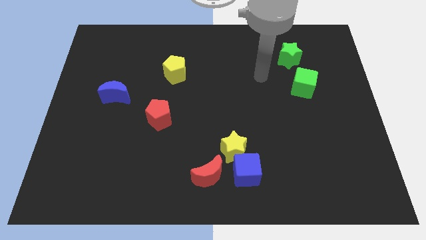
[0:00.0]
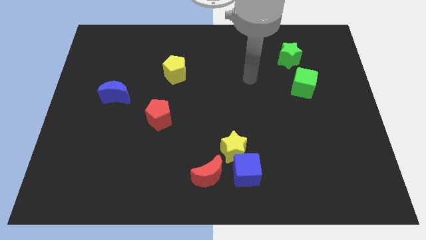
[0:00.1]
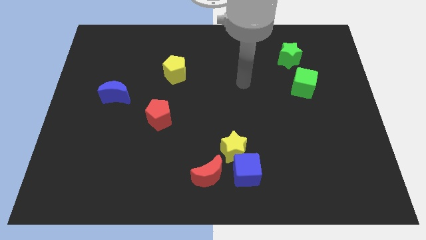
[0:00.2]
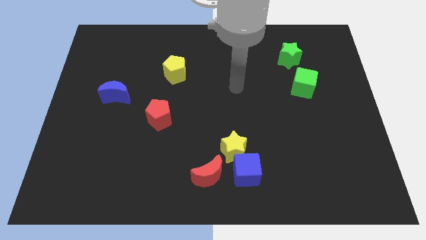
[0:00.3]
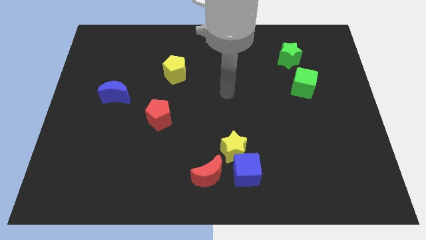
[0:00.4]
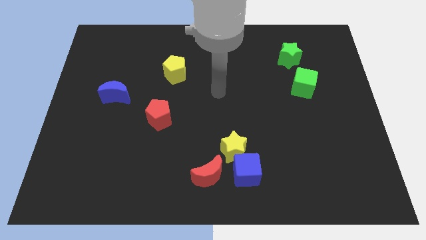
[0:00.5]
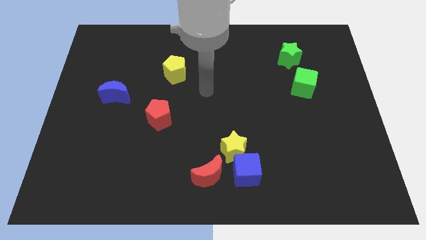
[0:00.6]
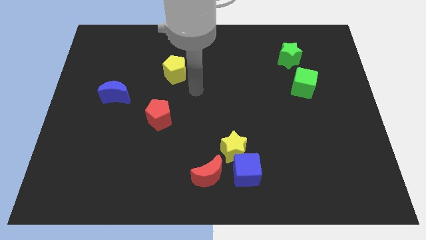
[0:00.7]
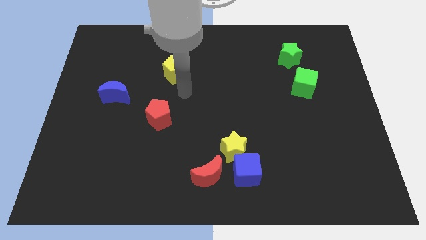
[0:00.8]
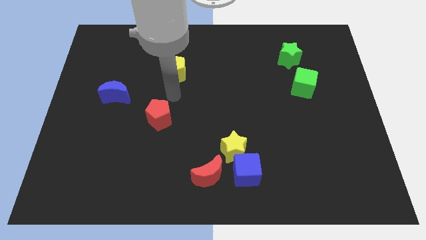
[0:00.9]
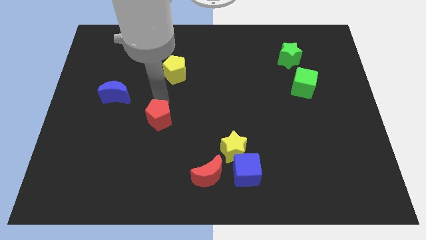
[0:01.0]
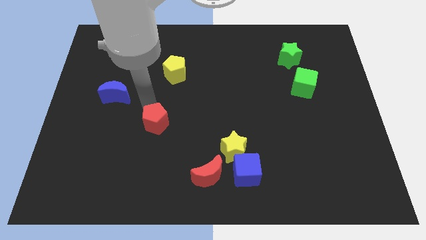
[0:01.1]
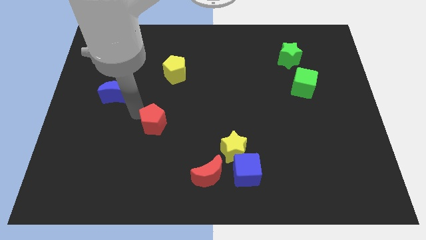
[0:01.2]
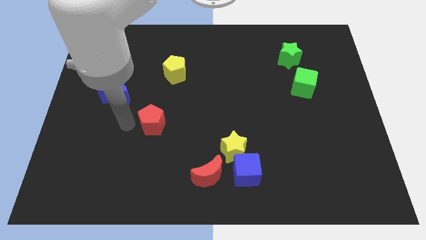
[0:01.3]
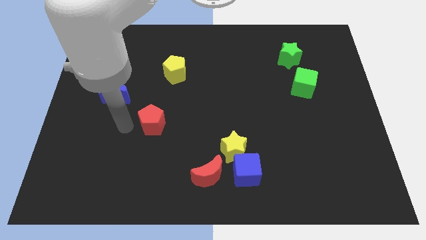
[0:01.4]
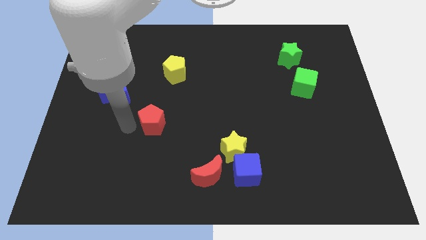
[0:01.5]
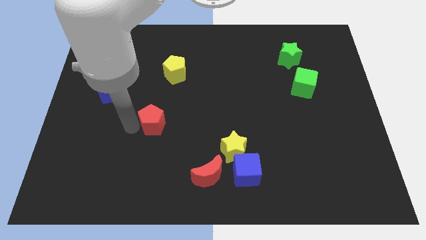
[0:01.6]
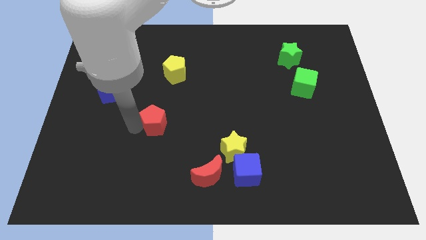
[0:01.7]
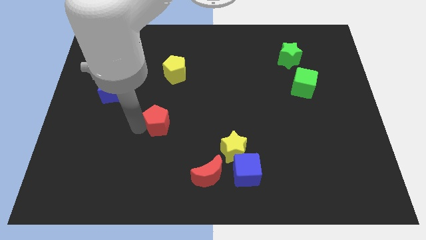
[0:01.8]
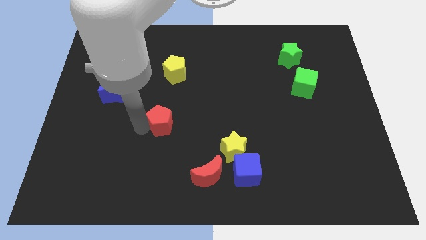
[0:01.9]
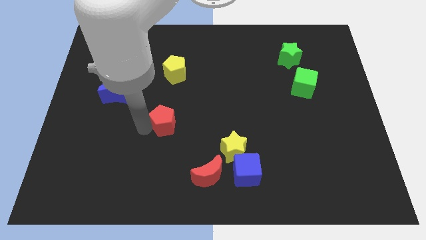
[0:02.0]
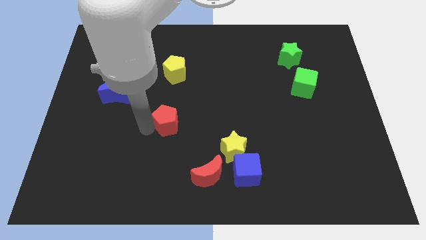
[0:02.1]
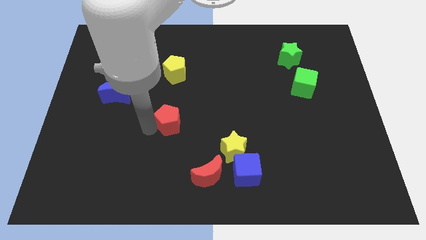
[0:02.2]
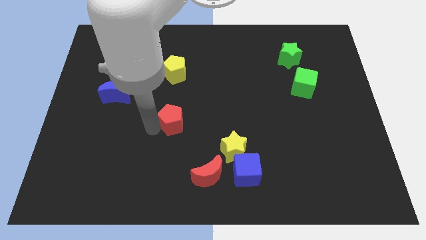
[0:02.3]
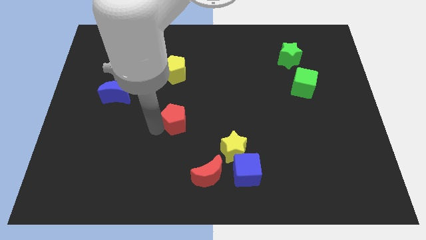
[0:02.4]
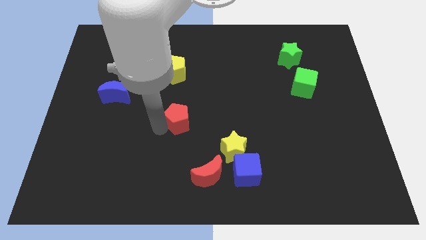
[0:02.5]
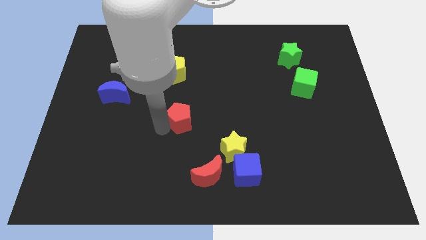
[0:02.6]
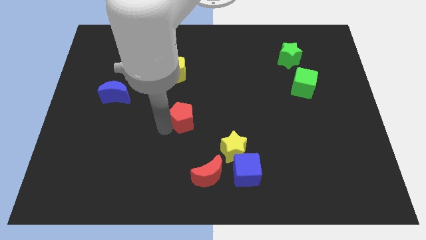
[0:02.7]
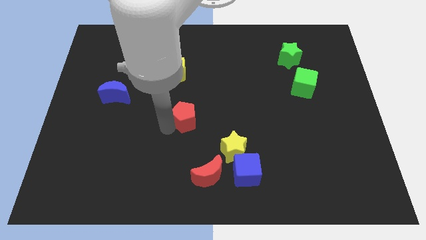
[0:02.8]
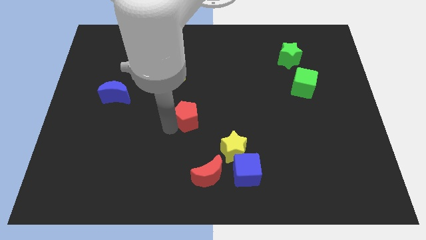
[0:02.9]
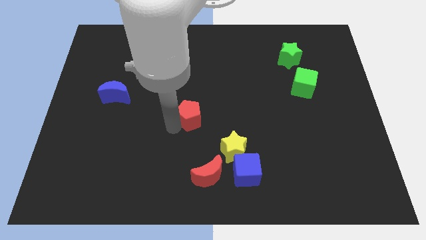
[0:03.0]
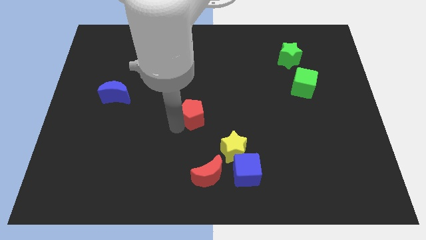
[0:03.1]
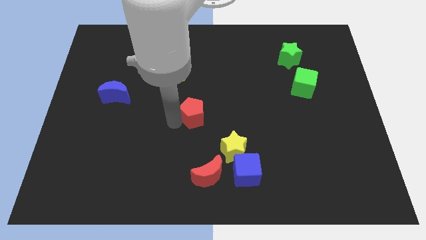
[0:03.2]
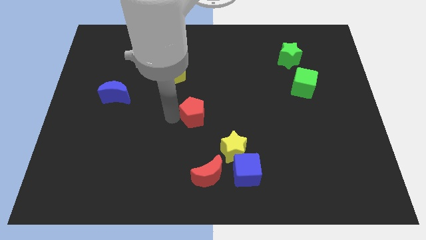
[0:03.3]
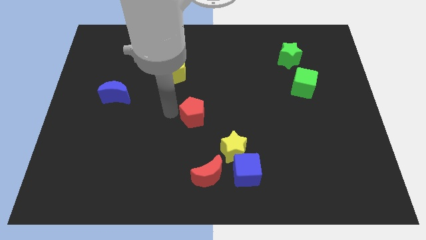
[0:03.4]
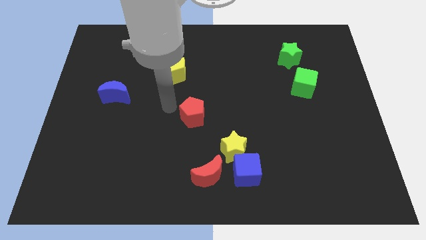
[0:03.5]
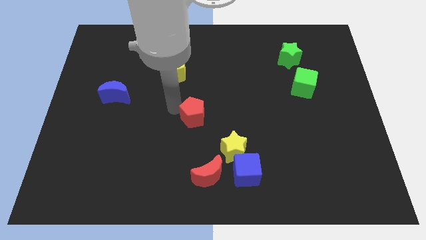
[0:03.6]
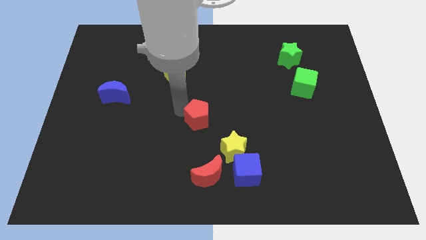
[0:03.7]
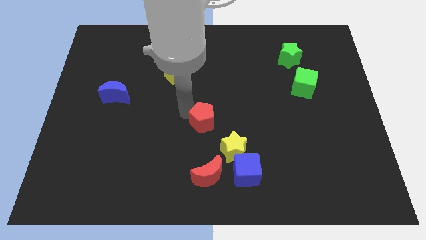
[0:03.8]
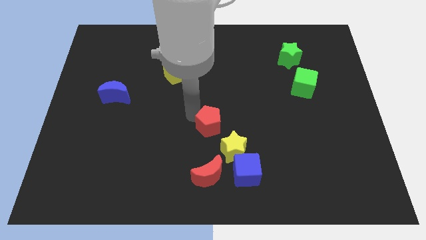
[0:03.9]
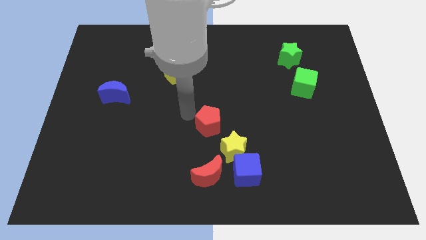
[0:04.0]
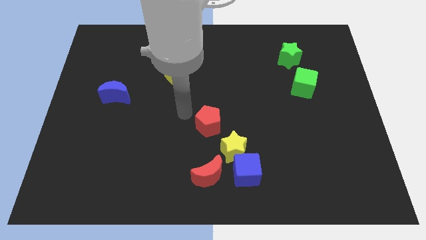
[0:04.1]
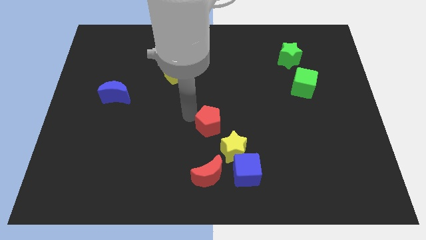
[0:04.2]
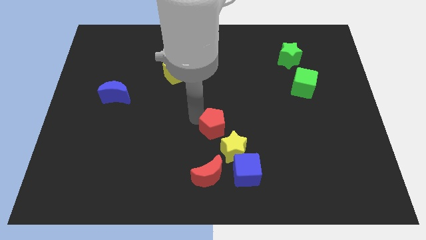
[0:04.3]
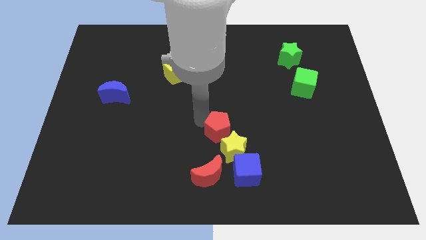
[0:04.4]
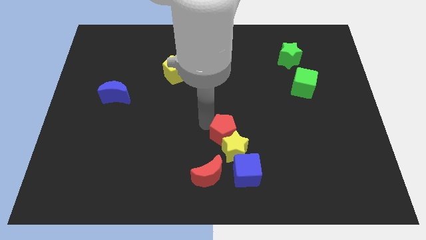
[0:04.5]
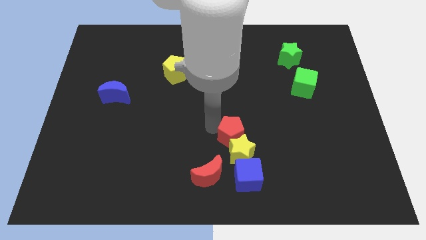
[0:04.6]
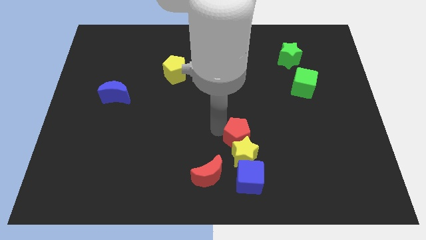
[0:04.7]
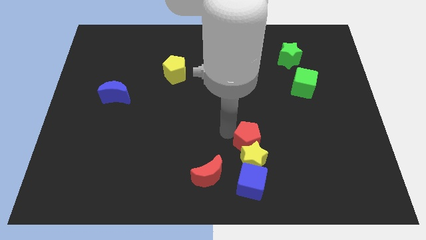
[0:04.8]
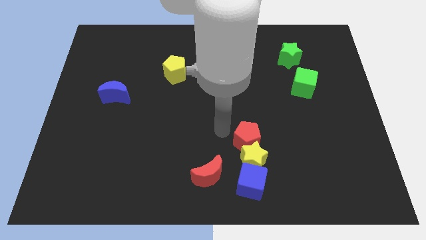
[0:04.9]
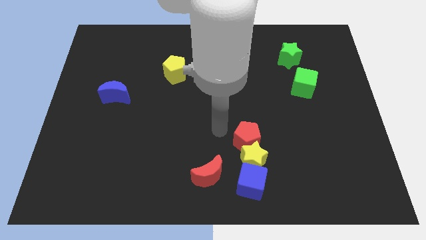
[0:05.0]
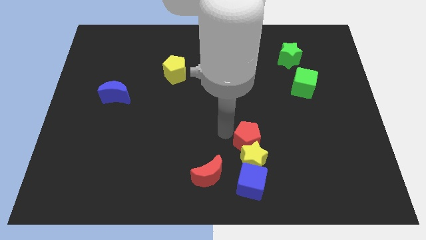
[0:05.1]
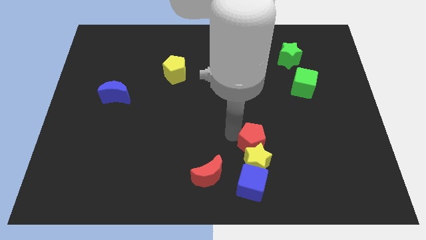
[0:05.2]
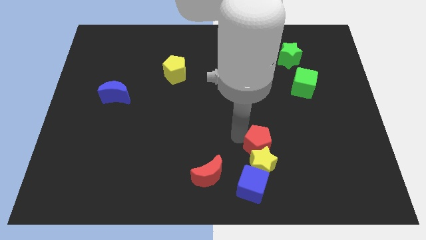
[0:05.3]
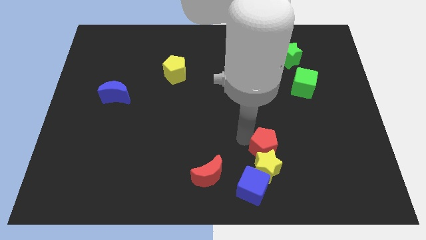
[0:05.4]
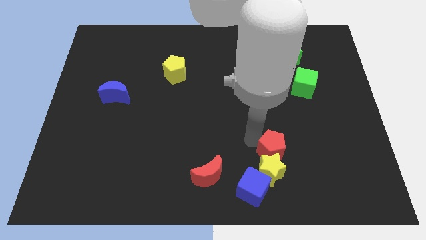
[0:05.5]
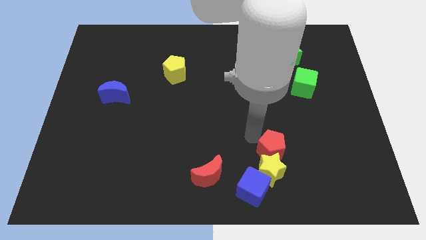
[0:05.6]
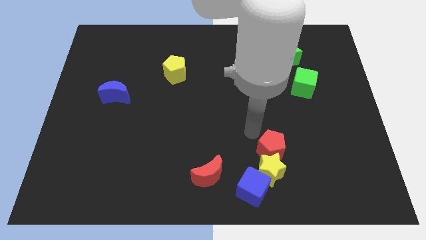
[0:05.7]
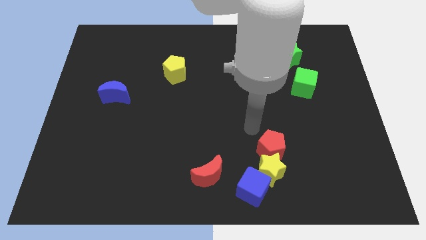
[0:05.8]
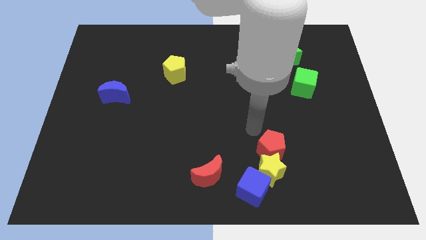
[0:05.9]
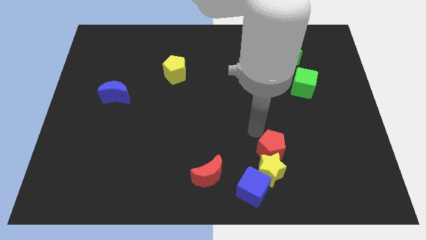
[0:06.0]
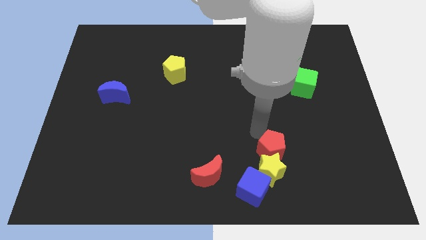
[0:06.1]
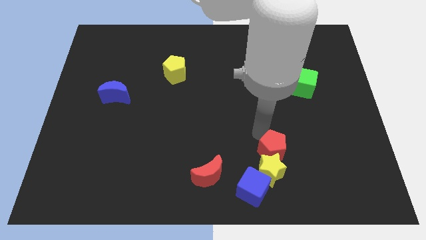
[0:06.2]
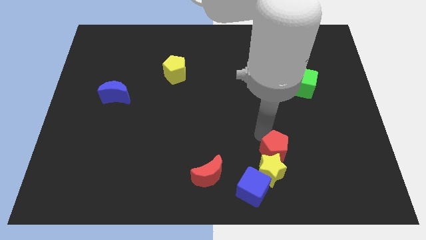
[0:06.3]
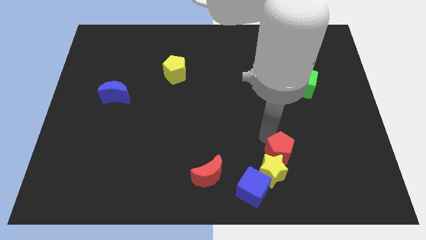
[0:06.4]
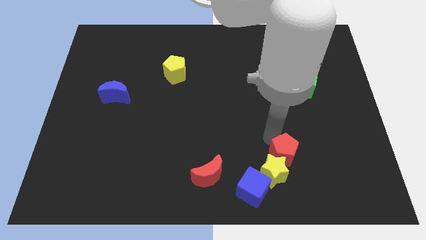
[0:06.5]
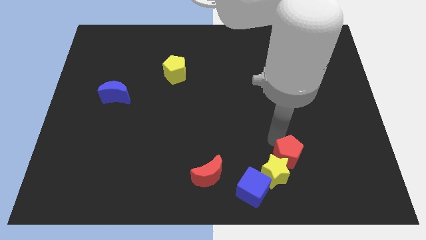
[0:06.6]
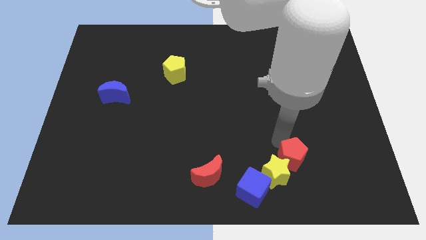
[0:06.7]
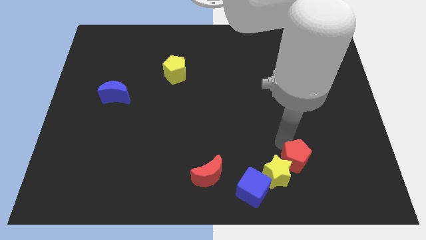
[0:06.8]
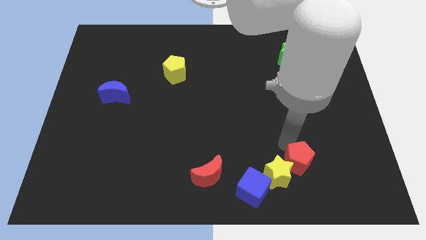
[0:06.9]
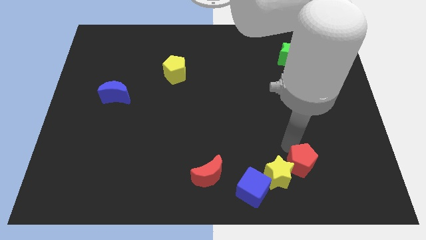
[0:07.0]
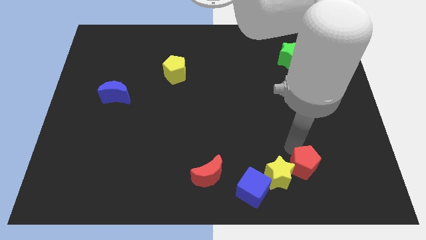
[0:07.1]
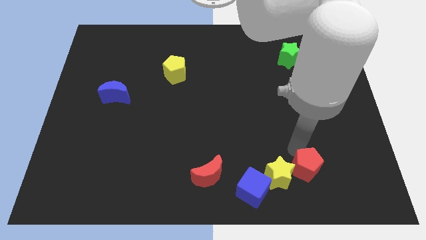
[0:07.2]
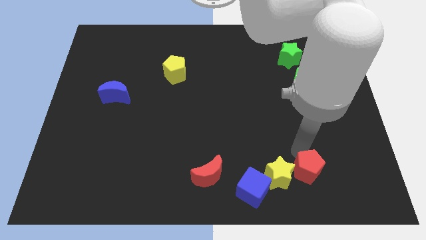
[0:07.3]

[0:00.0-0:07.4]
push the red pentagon right of the blue cube
